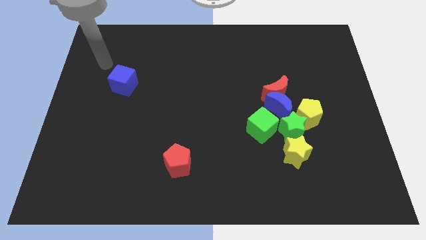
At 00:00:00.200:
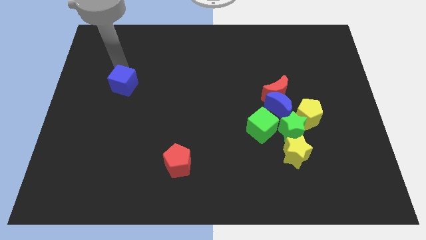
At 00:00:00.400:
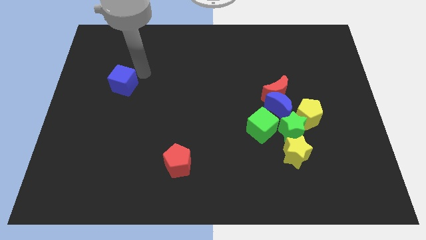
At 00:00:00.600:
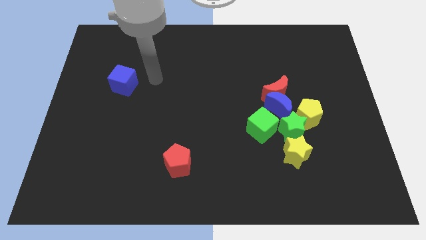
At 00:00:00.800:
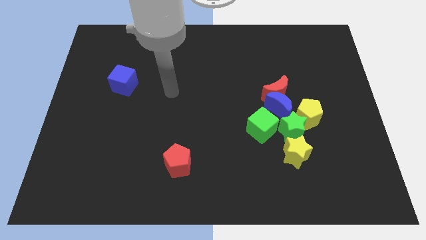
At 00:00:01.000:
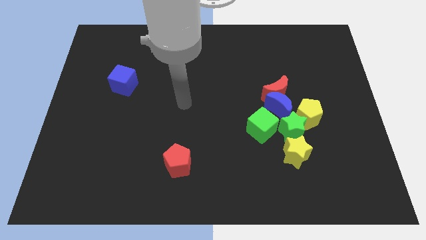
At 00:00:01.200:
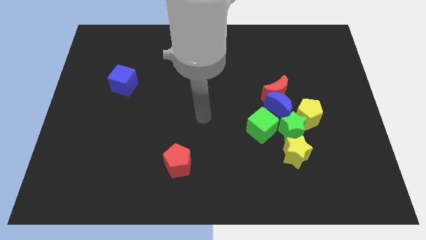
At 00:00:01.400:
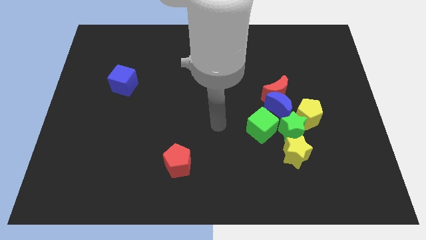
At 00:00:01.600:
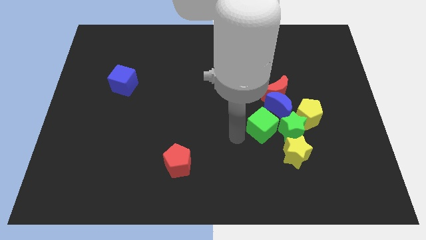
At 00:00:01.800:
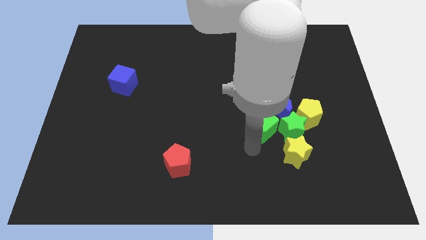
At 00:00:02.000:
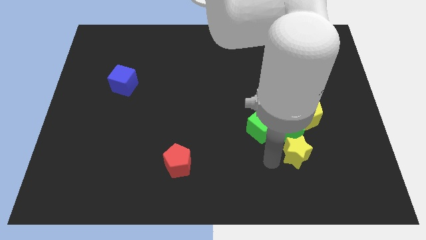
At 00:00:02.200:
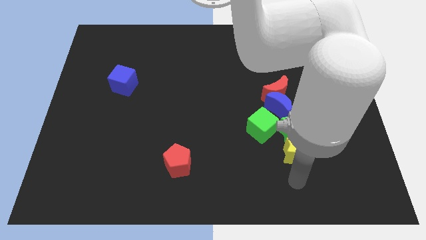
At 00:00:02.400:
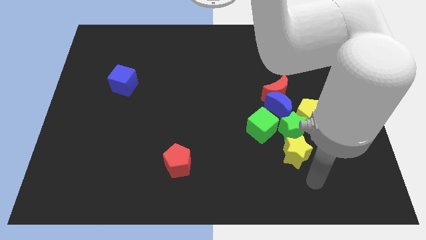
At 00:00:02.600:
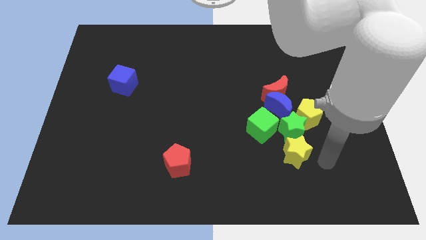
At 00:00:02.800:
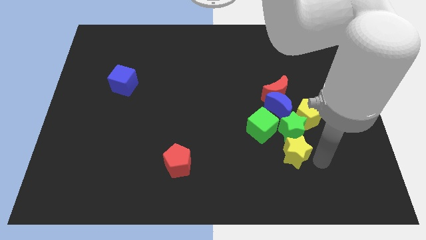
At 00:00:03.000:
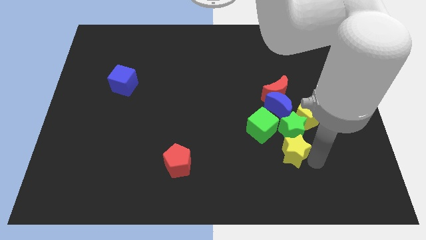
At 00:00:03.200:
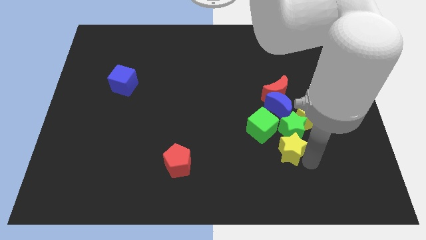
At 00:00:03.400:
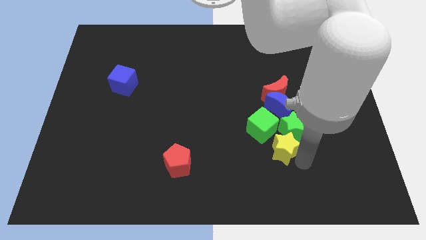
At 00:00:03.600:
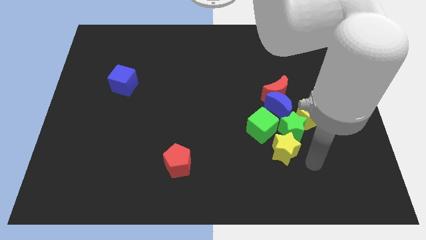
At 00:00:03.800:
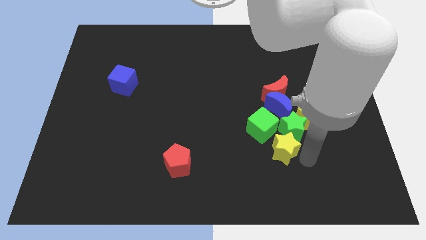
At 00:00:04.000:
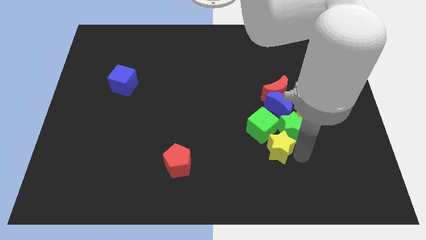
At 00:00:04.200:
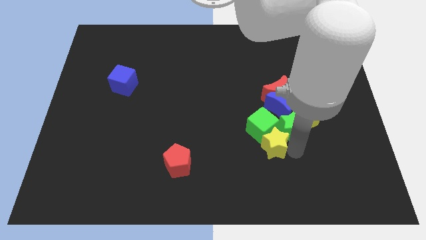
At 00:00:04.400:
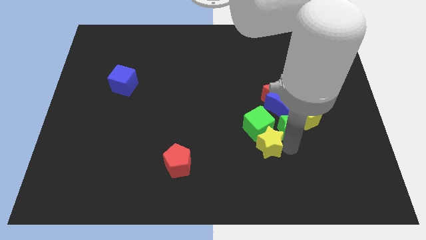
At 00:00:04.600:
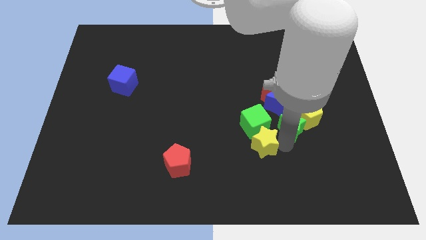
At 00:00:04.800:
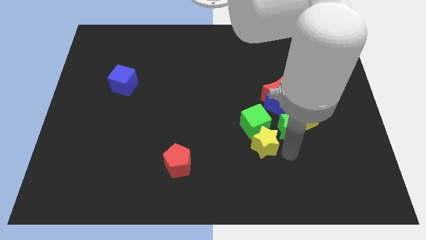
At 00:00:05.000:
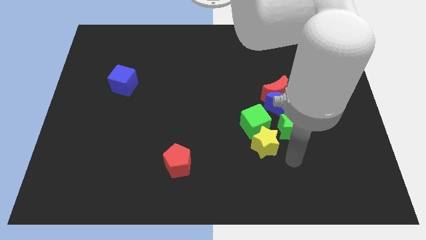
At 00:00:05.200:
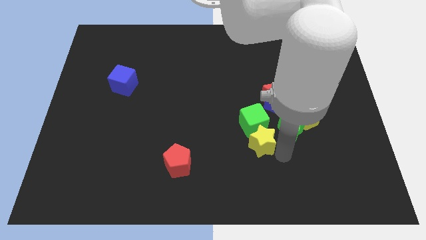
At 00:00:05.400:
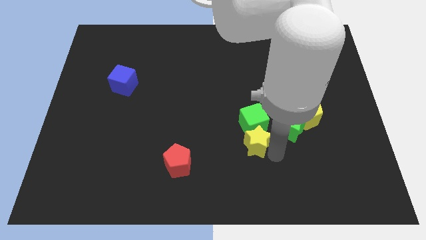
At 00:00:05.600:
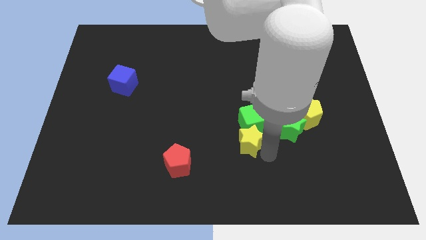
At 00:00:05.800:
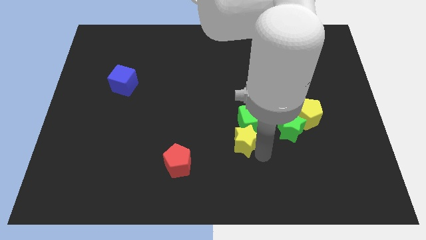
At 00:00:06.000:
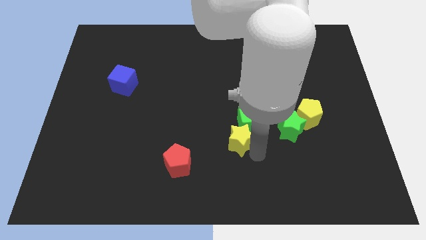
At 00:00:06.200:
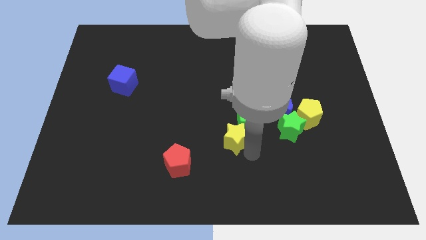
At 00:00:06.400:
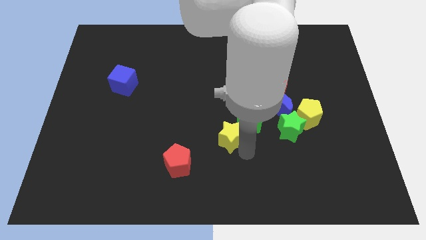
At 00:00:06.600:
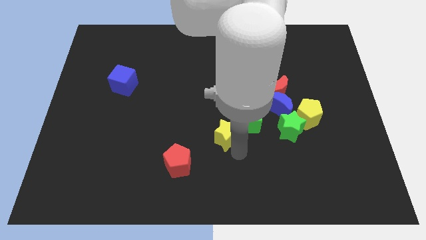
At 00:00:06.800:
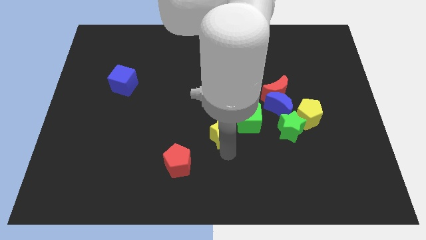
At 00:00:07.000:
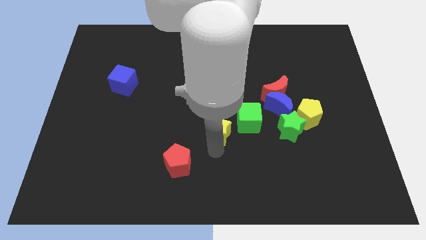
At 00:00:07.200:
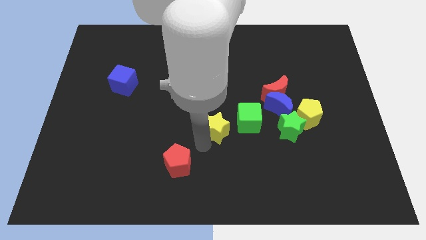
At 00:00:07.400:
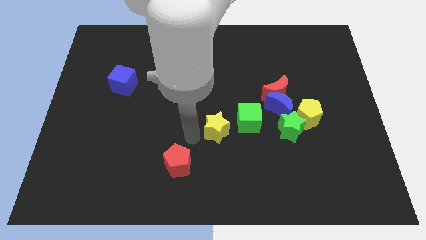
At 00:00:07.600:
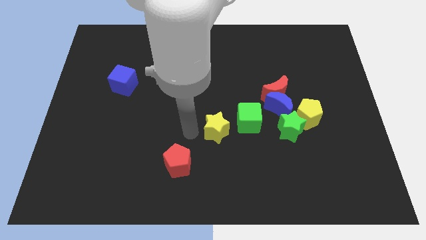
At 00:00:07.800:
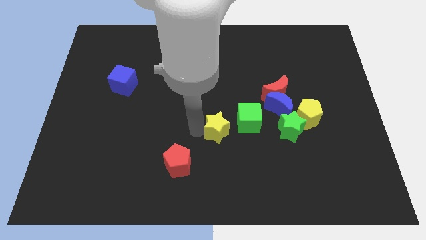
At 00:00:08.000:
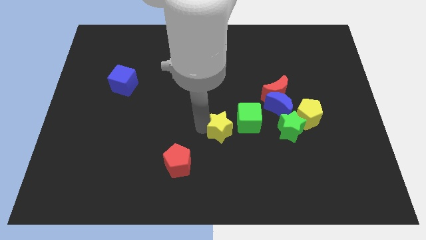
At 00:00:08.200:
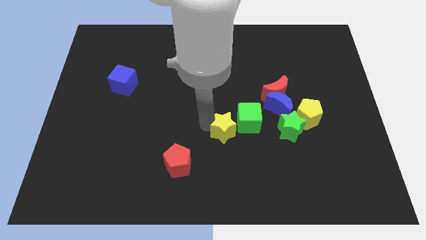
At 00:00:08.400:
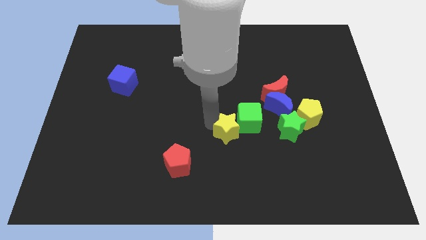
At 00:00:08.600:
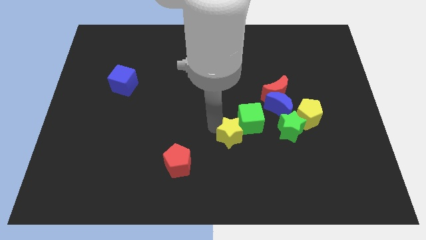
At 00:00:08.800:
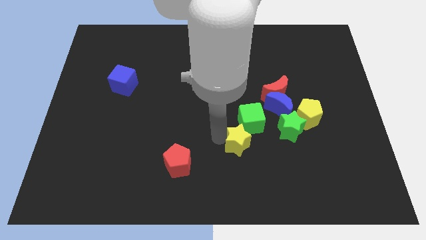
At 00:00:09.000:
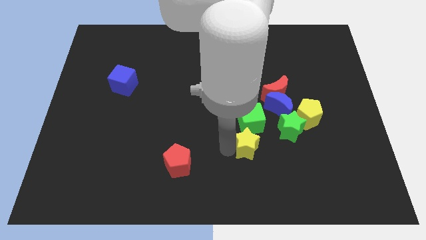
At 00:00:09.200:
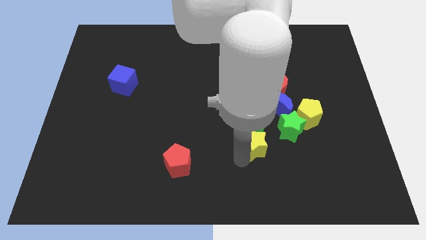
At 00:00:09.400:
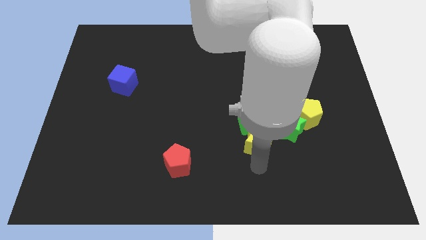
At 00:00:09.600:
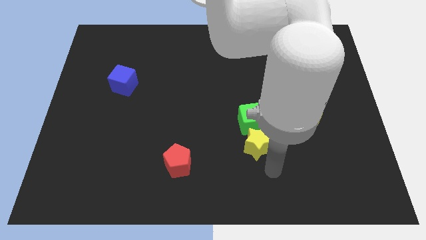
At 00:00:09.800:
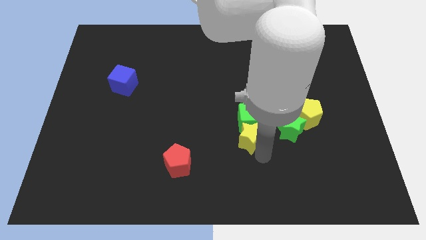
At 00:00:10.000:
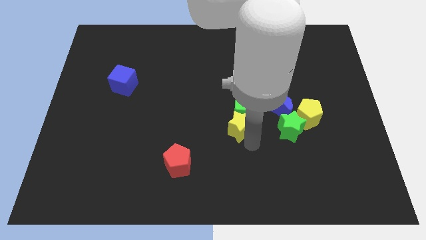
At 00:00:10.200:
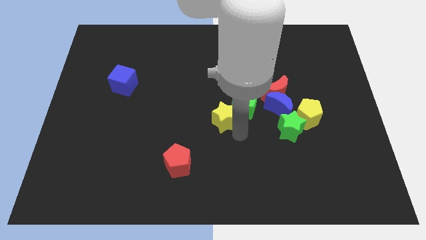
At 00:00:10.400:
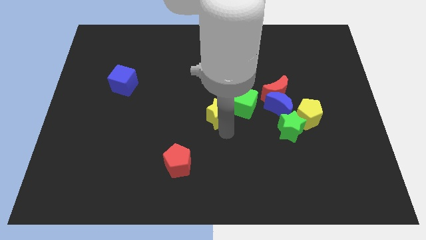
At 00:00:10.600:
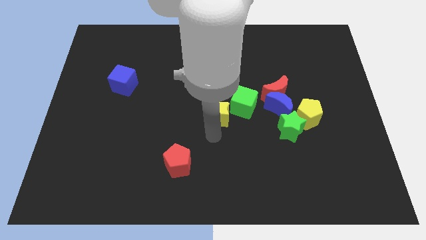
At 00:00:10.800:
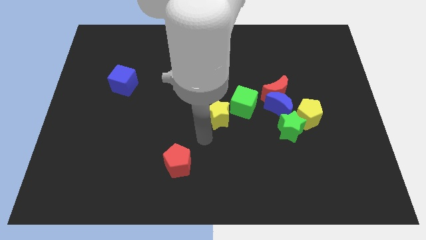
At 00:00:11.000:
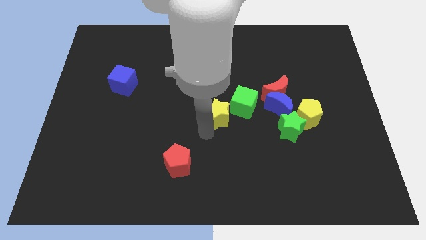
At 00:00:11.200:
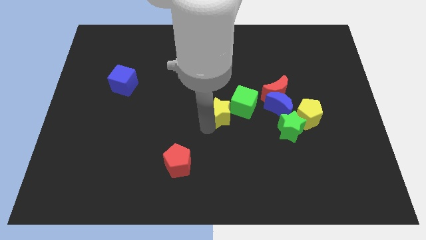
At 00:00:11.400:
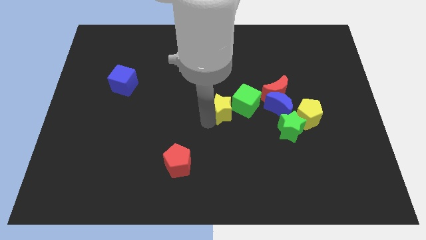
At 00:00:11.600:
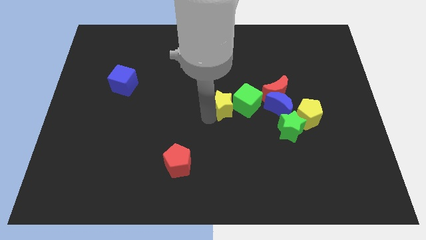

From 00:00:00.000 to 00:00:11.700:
push the yellow star upwards and left diagonally

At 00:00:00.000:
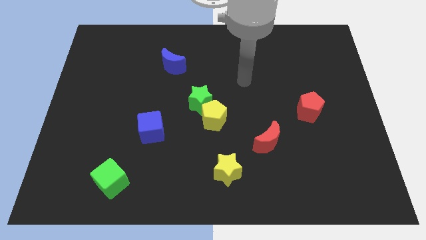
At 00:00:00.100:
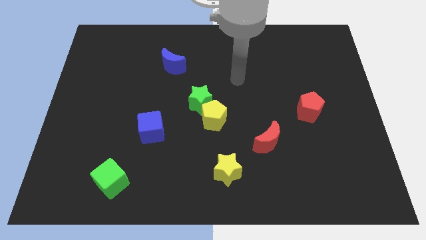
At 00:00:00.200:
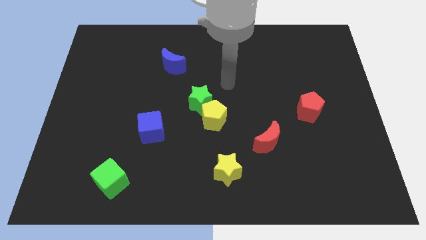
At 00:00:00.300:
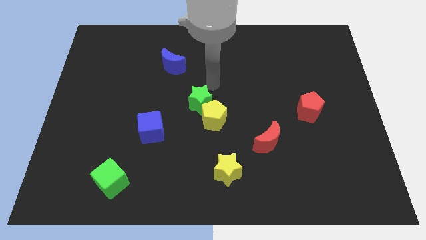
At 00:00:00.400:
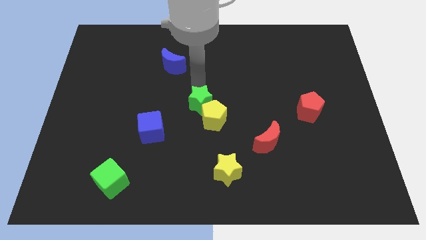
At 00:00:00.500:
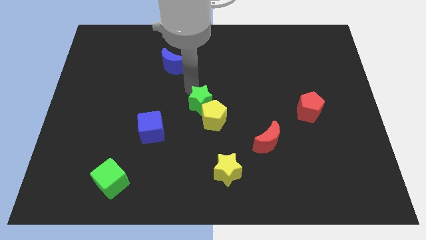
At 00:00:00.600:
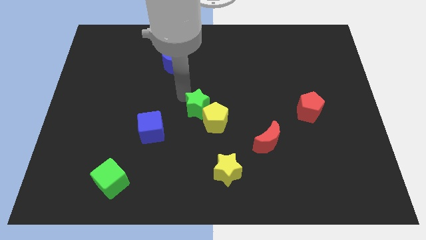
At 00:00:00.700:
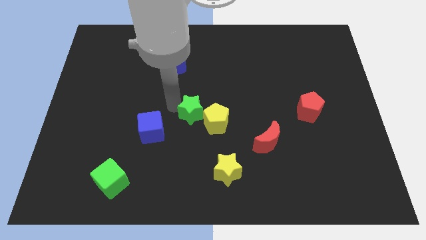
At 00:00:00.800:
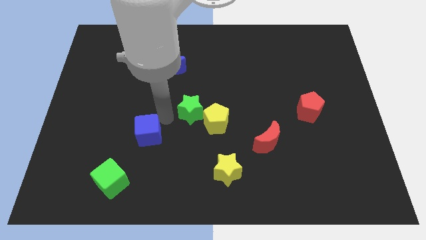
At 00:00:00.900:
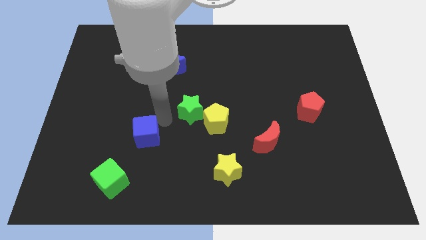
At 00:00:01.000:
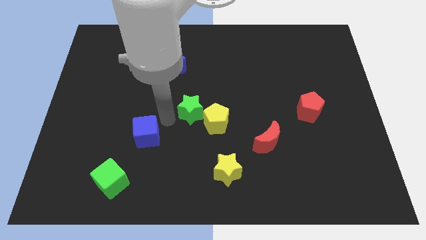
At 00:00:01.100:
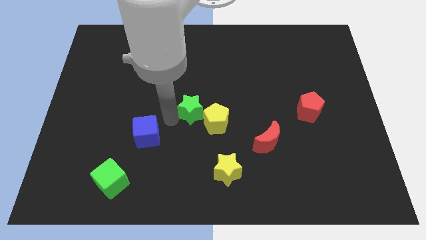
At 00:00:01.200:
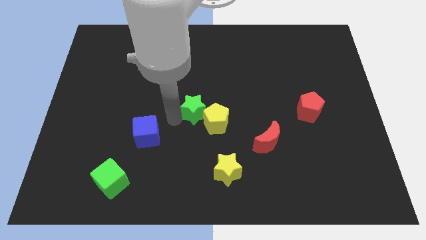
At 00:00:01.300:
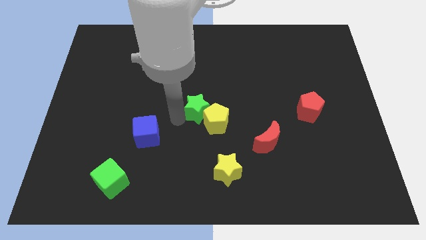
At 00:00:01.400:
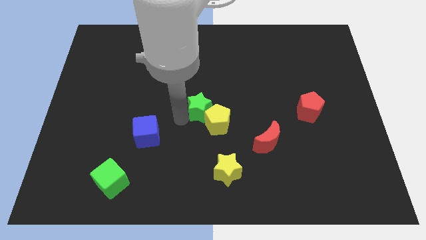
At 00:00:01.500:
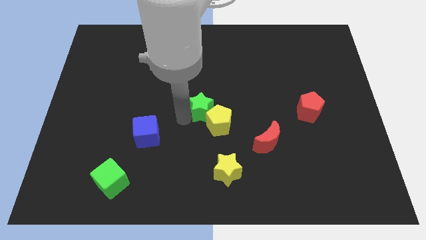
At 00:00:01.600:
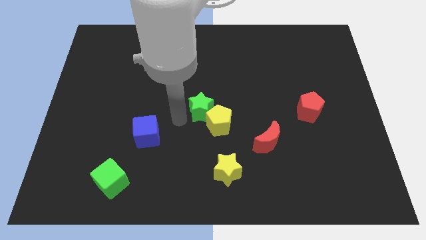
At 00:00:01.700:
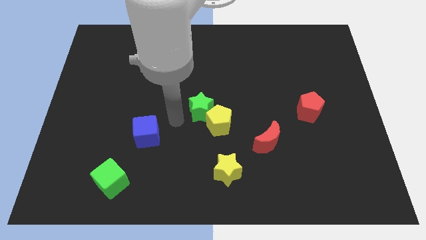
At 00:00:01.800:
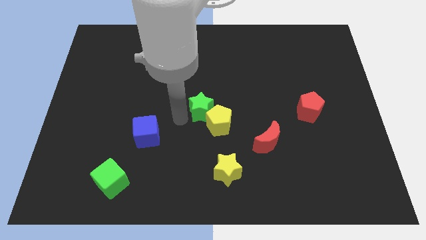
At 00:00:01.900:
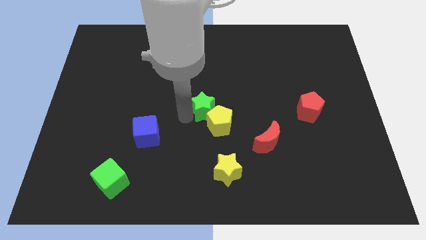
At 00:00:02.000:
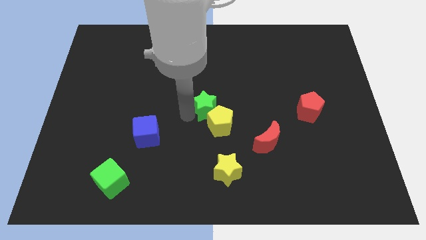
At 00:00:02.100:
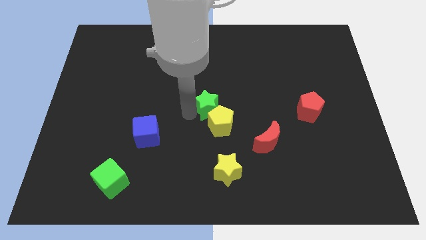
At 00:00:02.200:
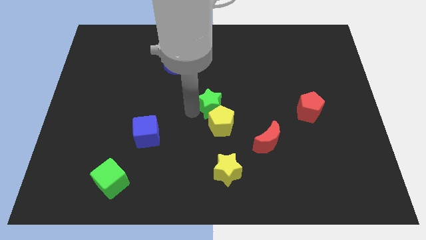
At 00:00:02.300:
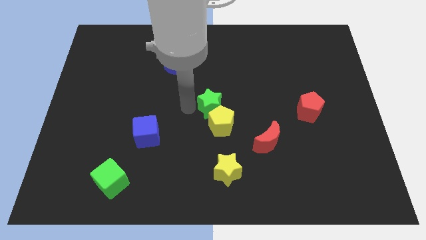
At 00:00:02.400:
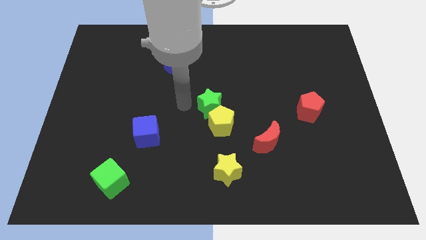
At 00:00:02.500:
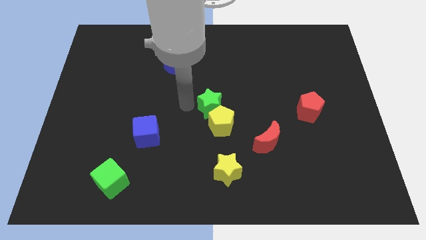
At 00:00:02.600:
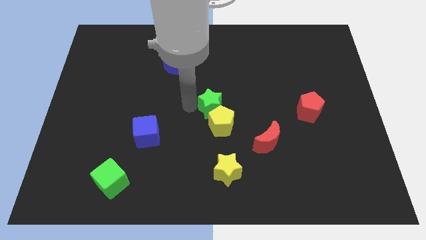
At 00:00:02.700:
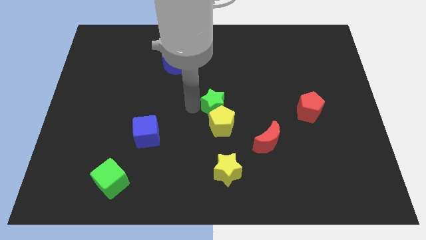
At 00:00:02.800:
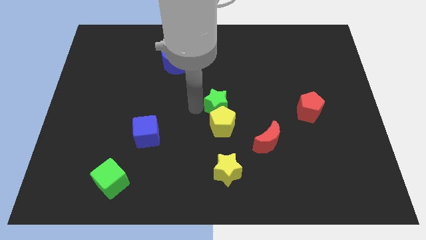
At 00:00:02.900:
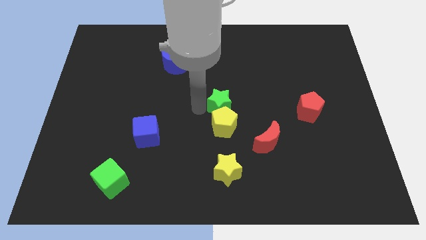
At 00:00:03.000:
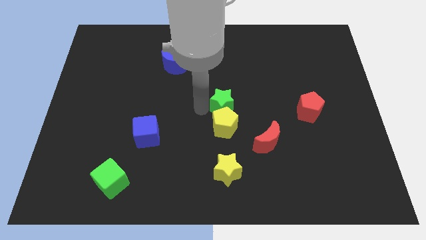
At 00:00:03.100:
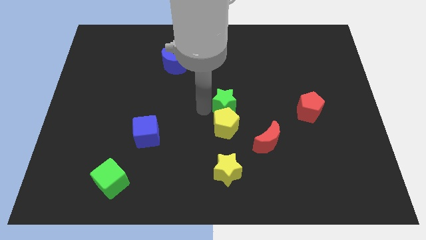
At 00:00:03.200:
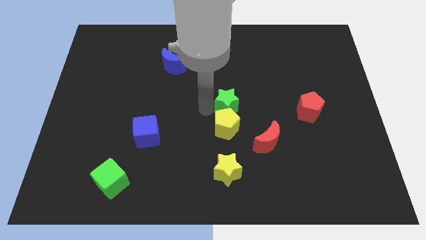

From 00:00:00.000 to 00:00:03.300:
slide the green star a bit right
